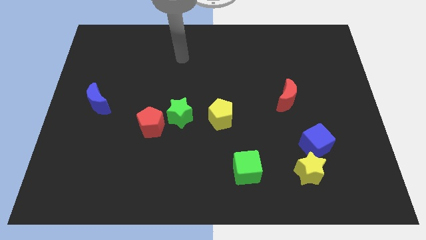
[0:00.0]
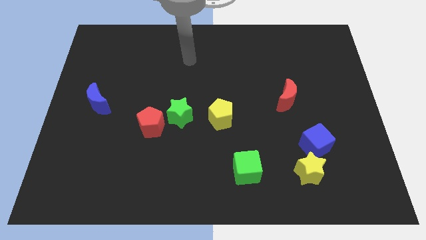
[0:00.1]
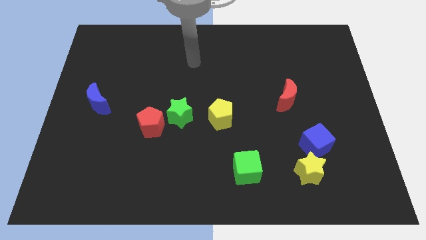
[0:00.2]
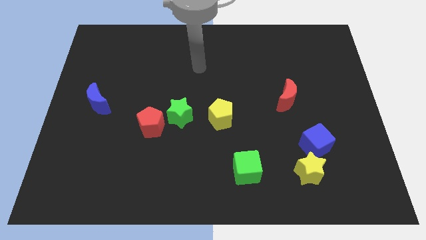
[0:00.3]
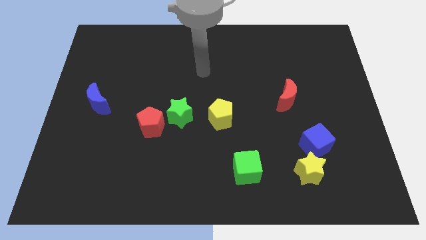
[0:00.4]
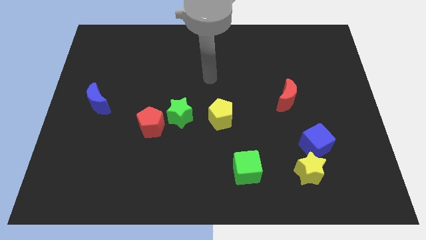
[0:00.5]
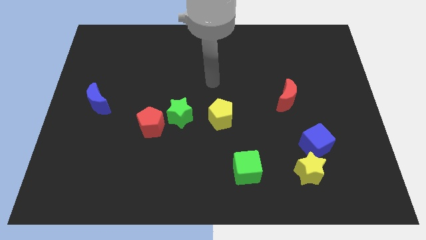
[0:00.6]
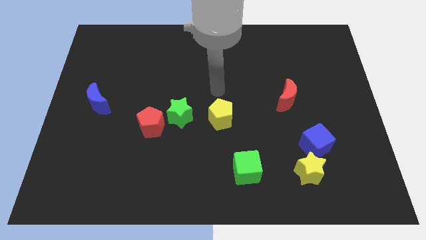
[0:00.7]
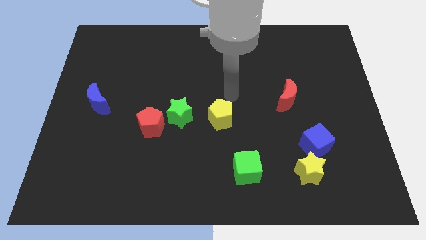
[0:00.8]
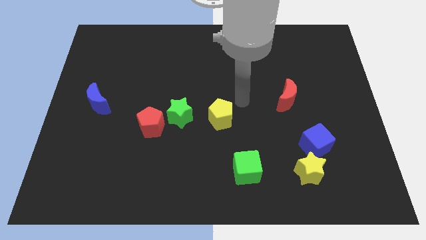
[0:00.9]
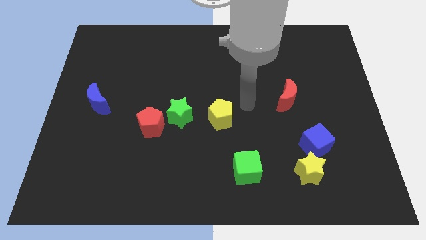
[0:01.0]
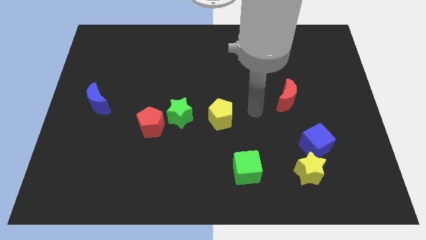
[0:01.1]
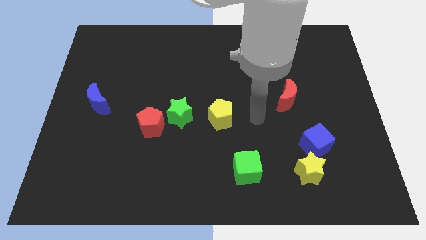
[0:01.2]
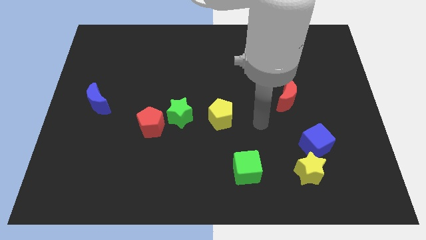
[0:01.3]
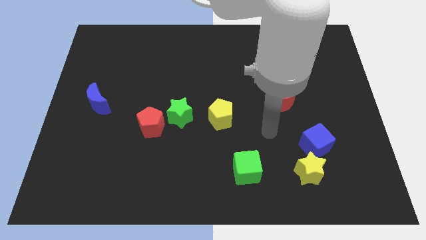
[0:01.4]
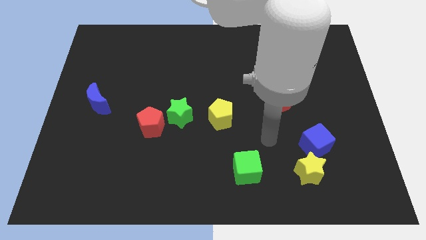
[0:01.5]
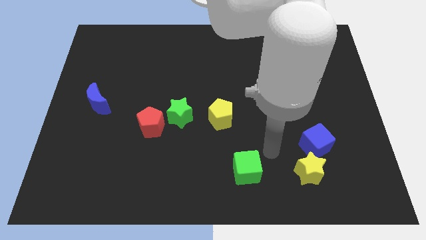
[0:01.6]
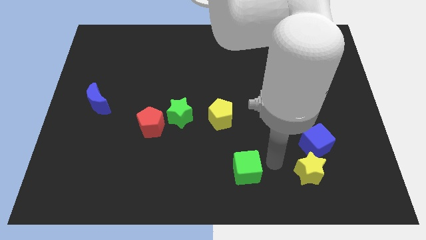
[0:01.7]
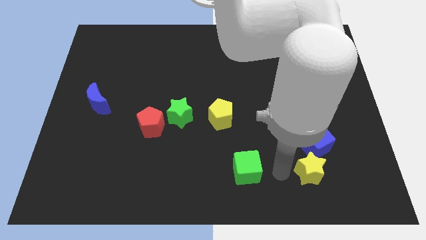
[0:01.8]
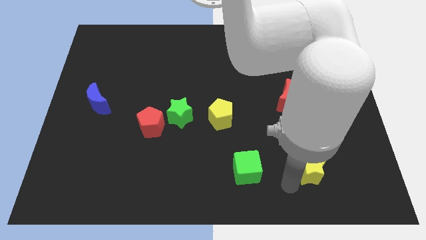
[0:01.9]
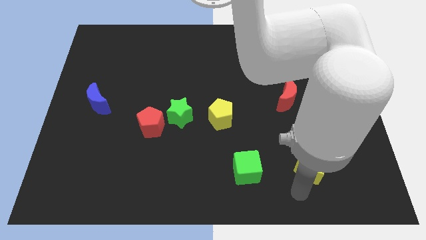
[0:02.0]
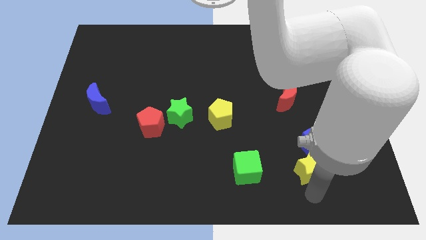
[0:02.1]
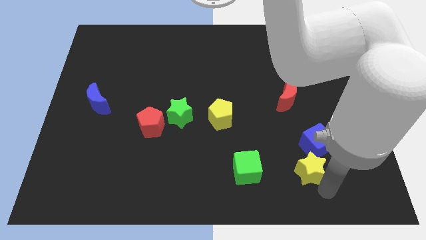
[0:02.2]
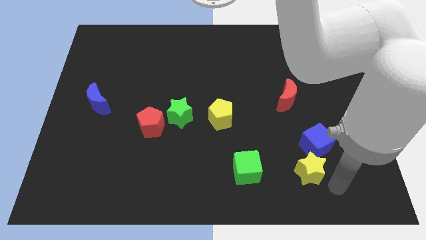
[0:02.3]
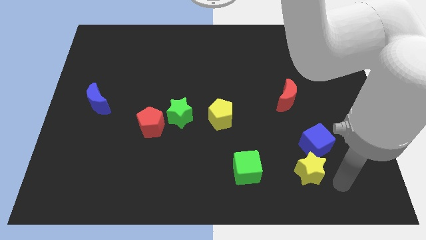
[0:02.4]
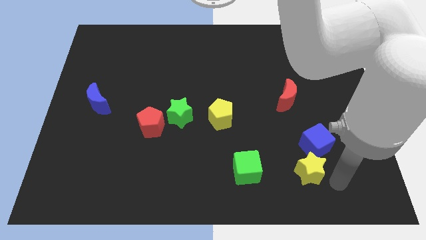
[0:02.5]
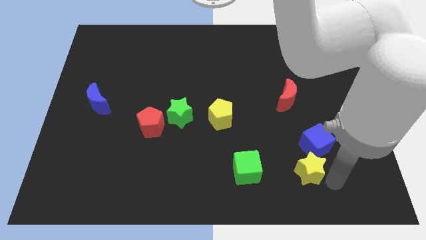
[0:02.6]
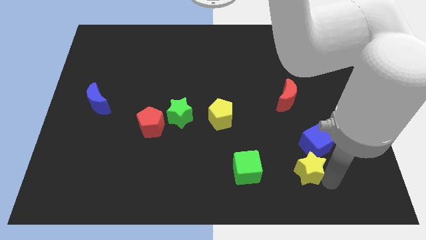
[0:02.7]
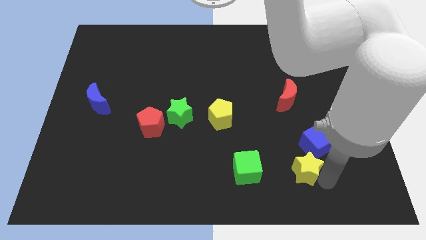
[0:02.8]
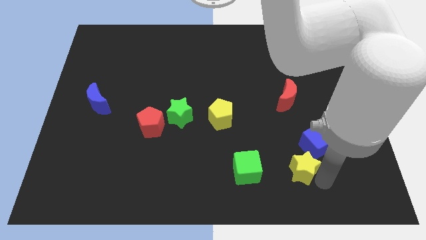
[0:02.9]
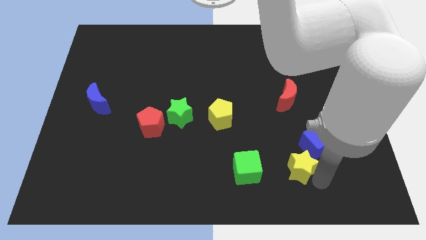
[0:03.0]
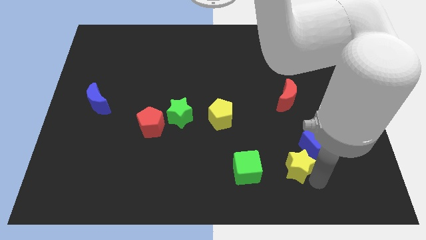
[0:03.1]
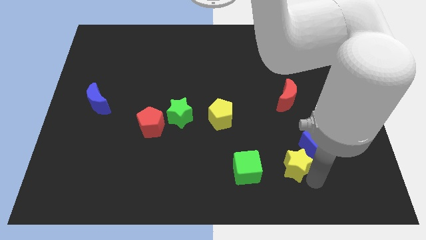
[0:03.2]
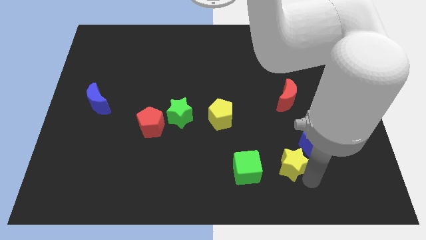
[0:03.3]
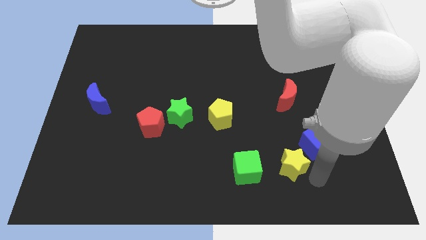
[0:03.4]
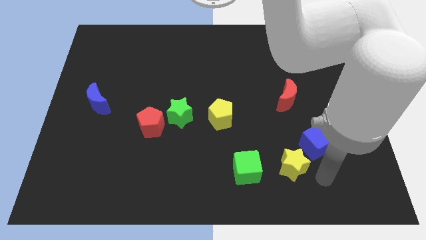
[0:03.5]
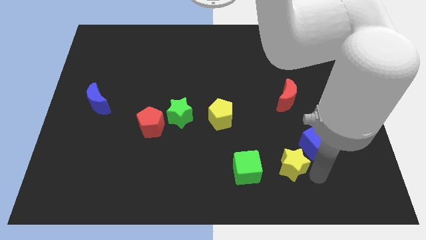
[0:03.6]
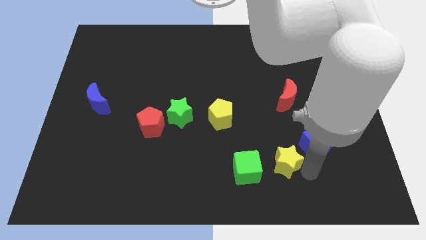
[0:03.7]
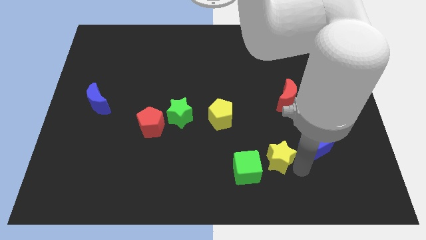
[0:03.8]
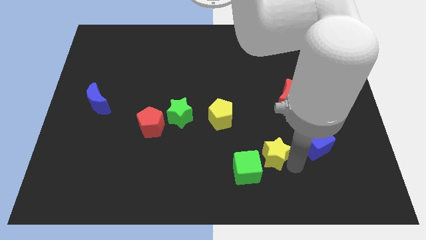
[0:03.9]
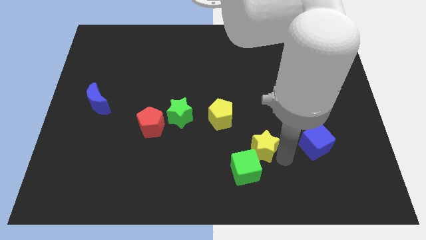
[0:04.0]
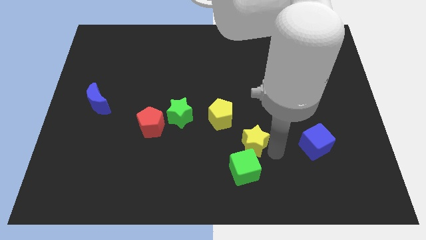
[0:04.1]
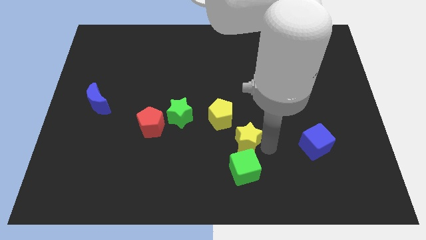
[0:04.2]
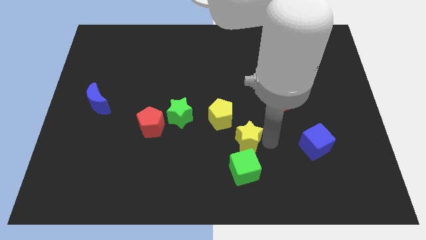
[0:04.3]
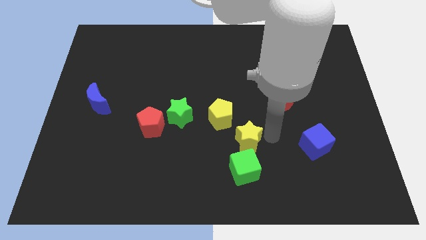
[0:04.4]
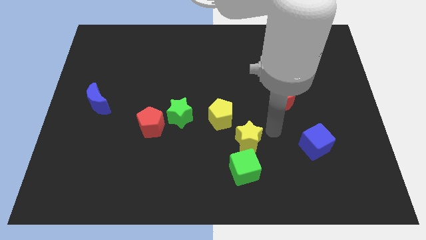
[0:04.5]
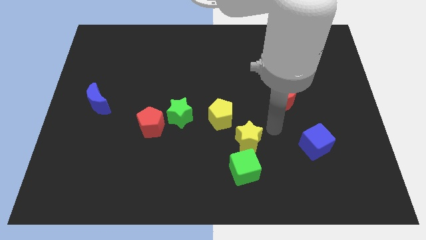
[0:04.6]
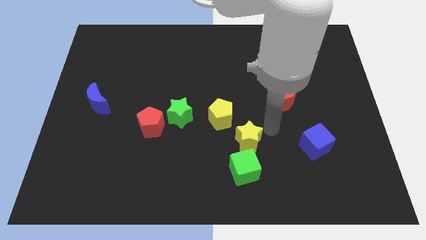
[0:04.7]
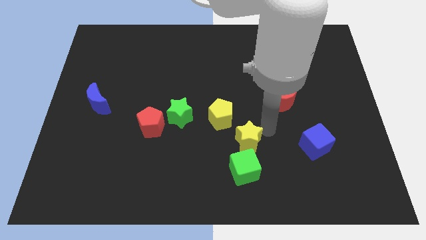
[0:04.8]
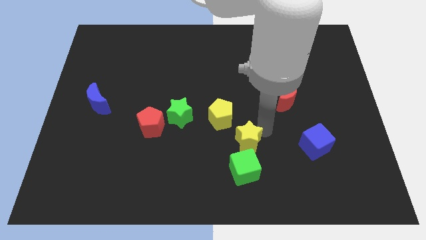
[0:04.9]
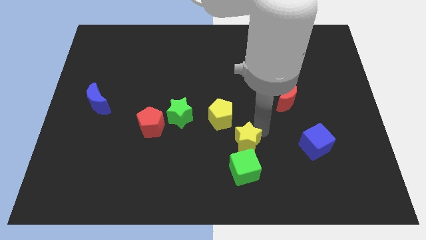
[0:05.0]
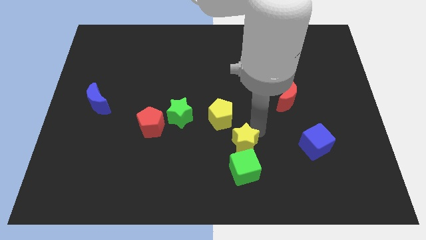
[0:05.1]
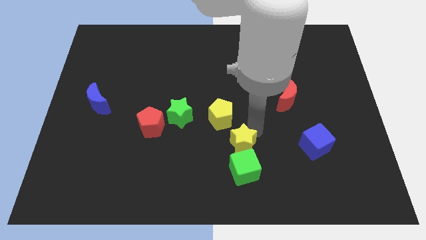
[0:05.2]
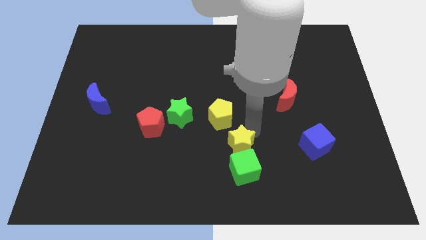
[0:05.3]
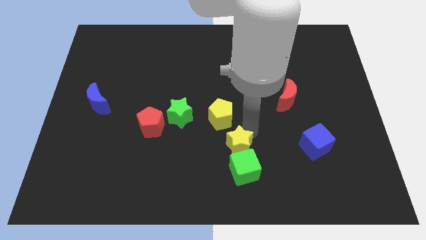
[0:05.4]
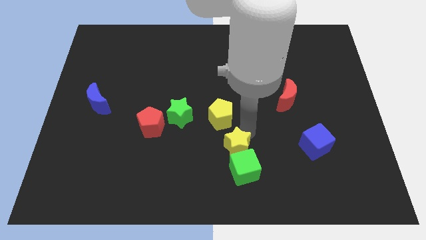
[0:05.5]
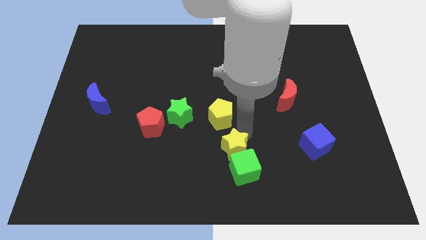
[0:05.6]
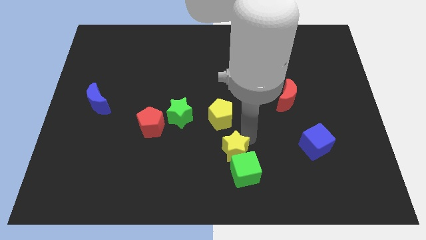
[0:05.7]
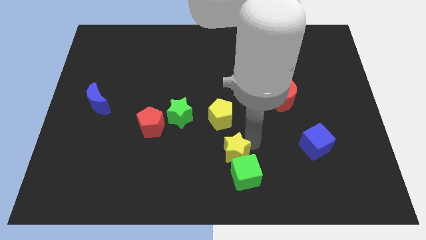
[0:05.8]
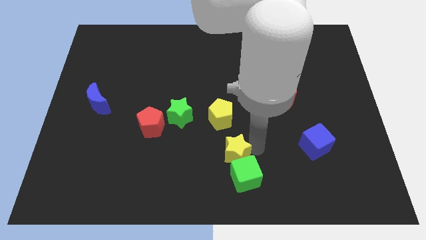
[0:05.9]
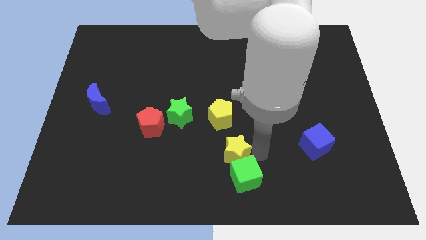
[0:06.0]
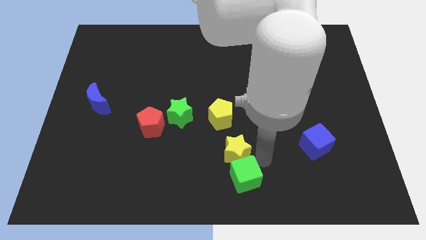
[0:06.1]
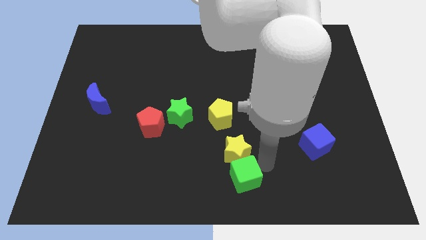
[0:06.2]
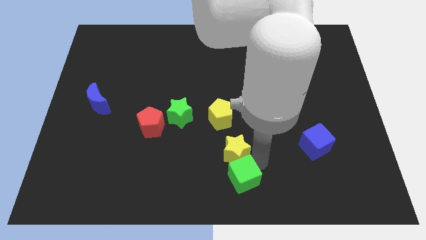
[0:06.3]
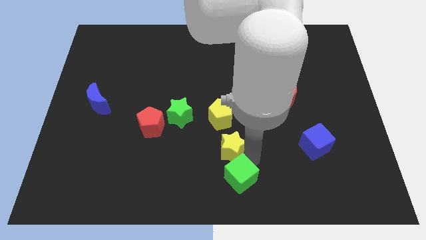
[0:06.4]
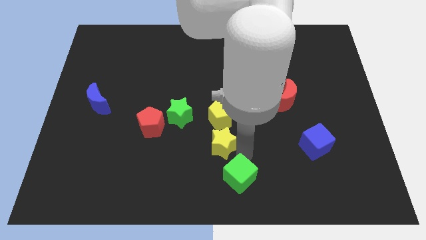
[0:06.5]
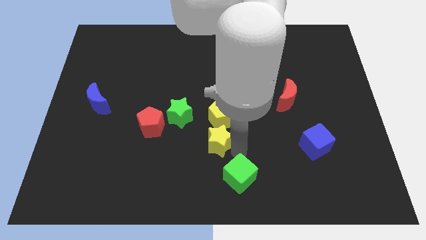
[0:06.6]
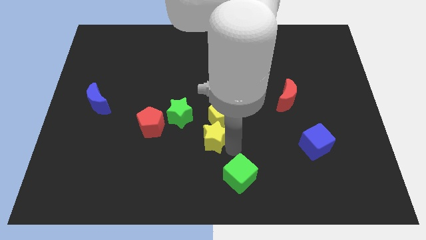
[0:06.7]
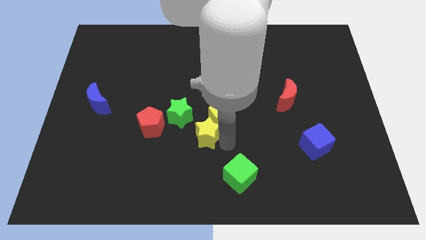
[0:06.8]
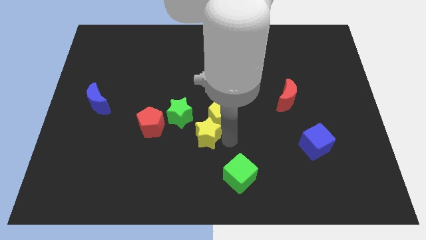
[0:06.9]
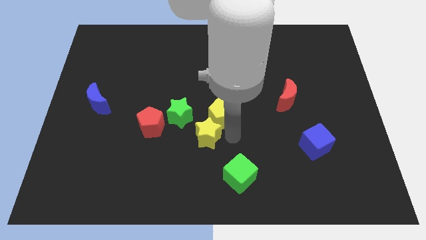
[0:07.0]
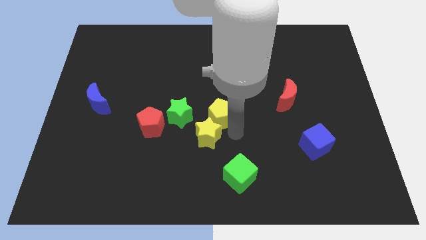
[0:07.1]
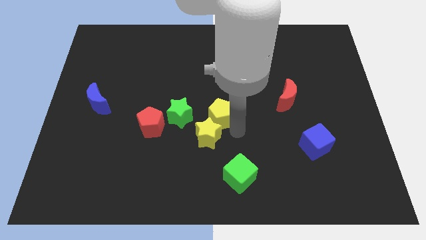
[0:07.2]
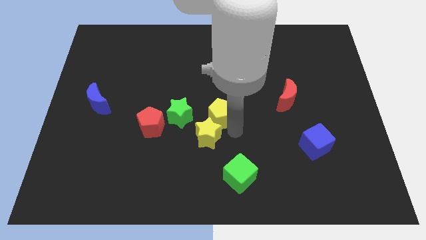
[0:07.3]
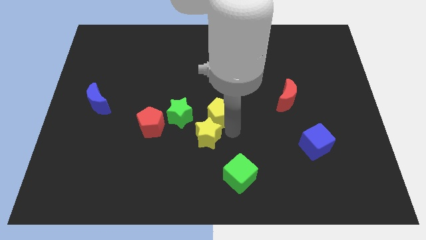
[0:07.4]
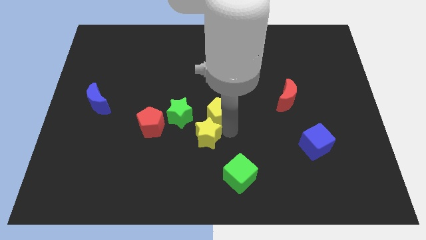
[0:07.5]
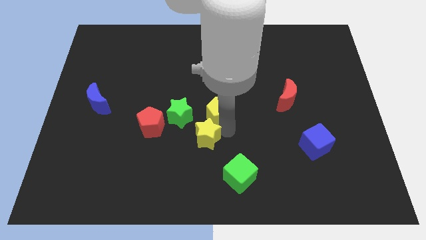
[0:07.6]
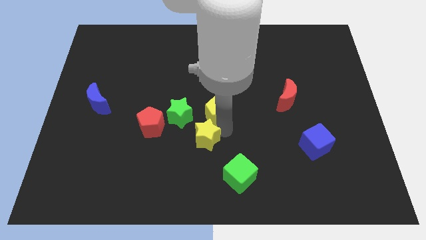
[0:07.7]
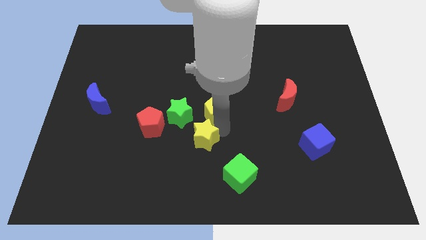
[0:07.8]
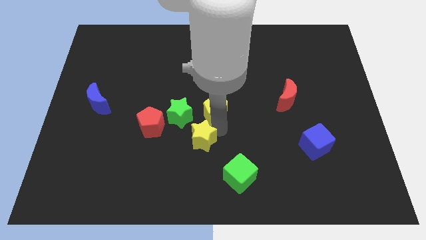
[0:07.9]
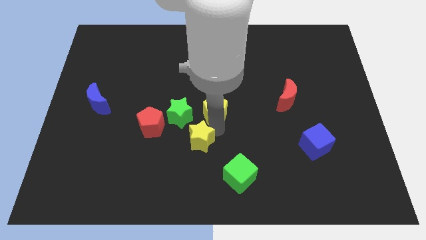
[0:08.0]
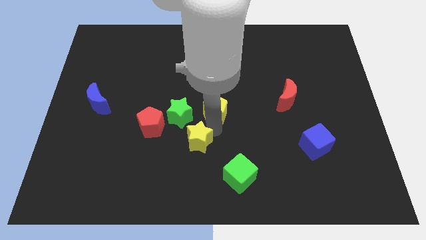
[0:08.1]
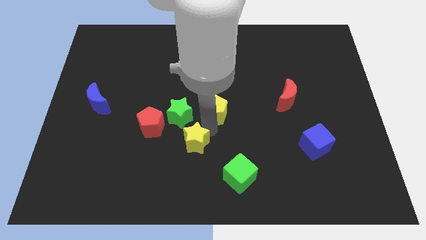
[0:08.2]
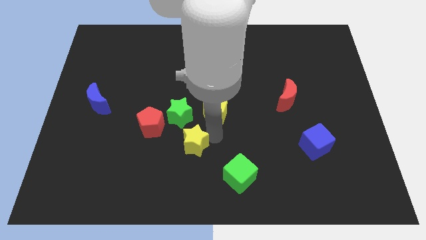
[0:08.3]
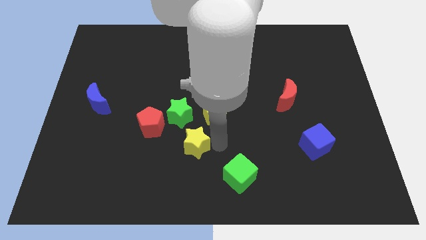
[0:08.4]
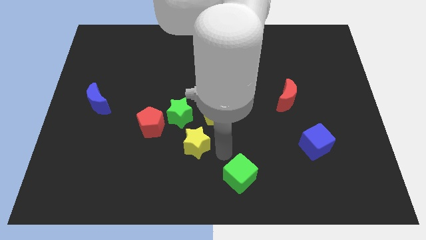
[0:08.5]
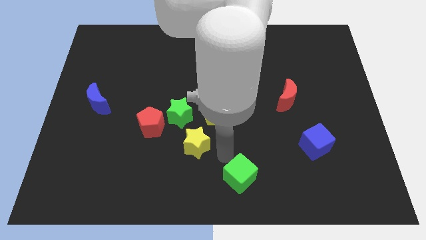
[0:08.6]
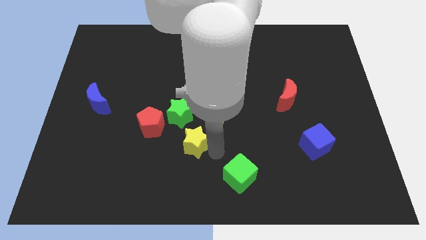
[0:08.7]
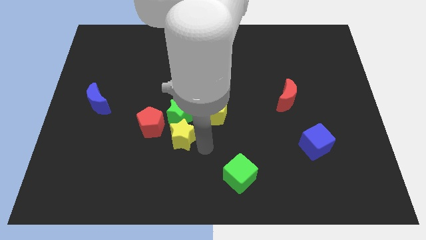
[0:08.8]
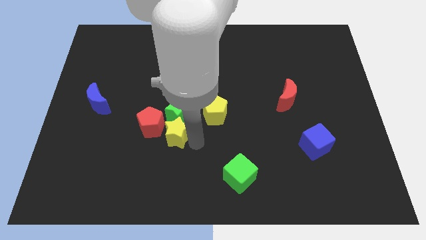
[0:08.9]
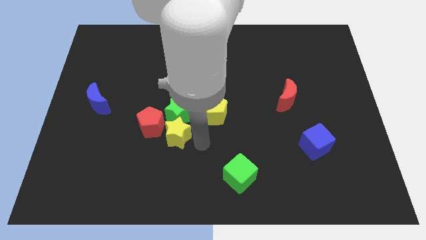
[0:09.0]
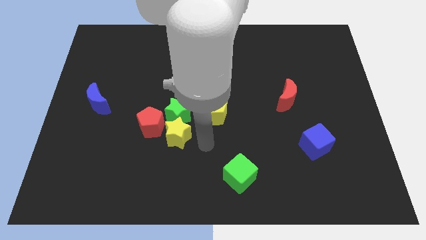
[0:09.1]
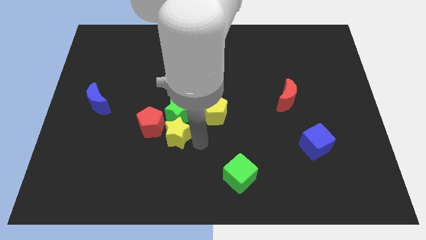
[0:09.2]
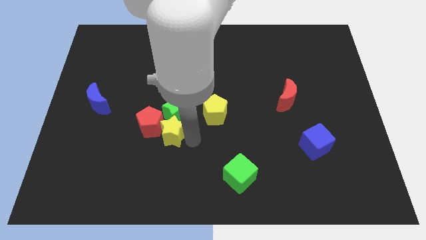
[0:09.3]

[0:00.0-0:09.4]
slide the yellow star towards the red pentagon
